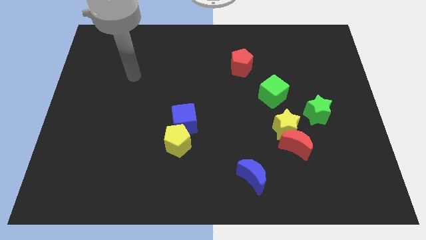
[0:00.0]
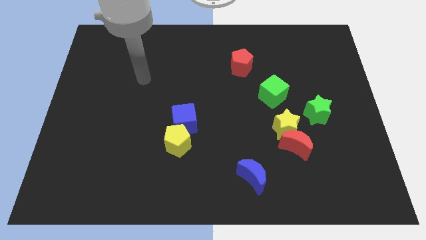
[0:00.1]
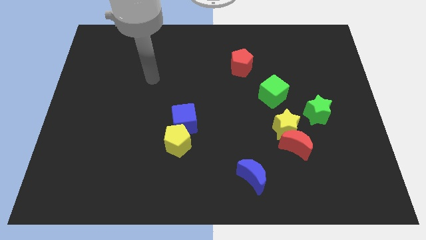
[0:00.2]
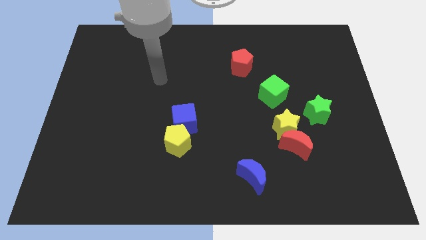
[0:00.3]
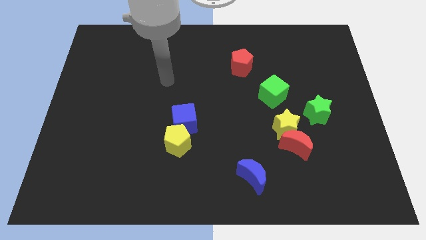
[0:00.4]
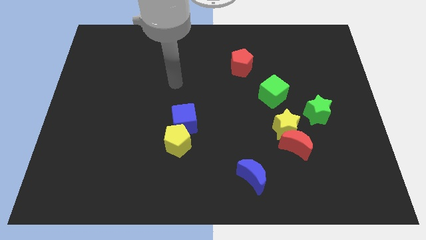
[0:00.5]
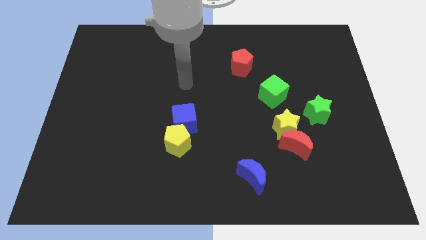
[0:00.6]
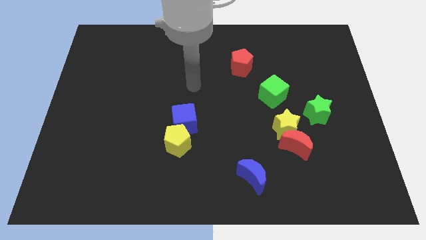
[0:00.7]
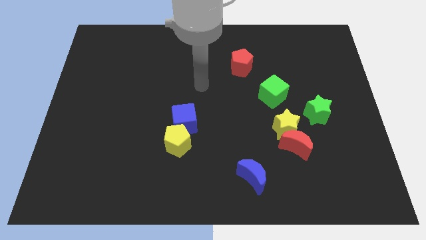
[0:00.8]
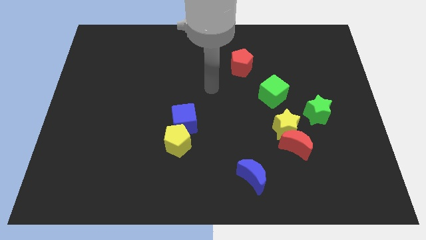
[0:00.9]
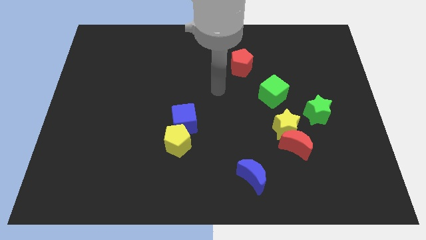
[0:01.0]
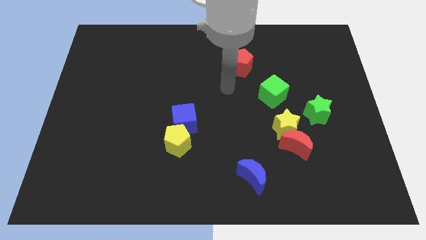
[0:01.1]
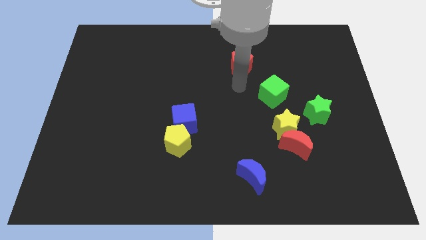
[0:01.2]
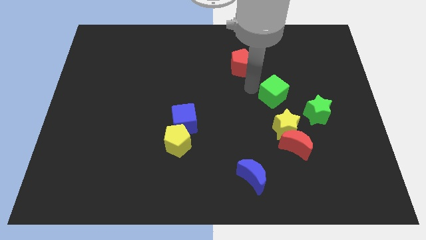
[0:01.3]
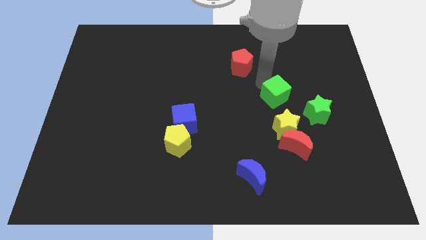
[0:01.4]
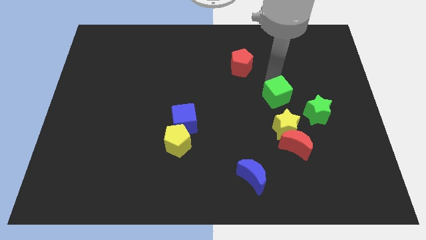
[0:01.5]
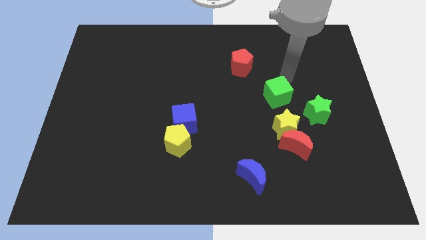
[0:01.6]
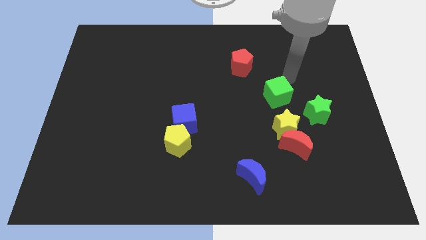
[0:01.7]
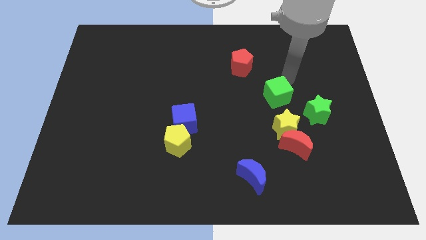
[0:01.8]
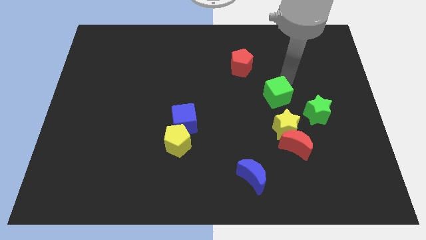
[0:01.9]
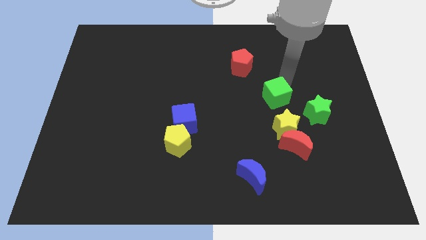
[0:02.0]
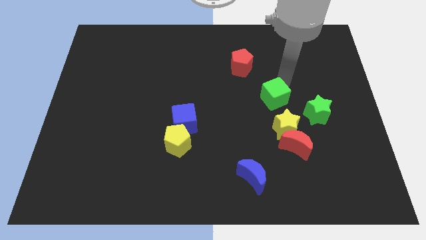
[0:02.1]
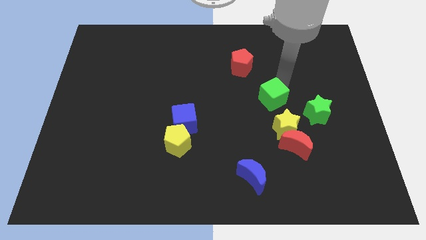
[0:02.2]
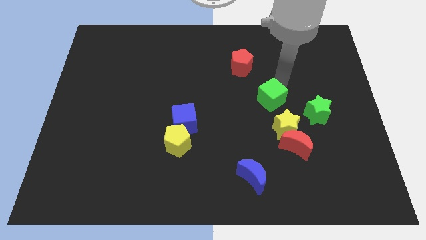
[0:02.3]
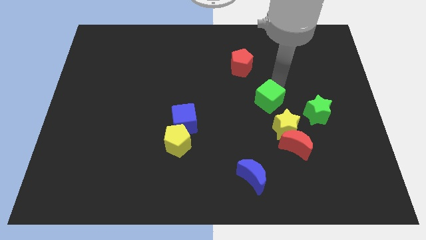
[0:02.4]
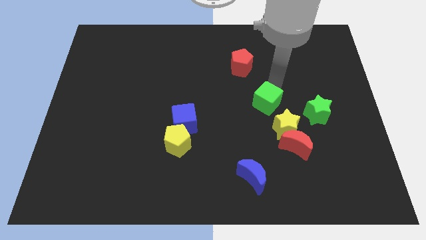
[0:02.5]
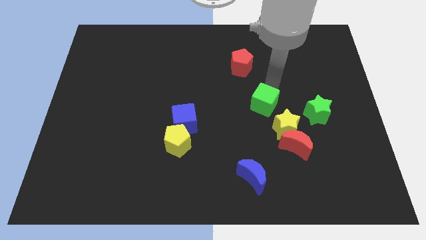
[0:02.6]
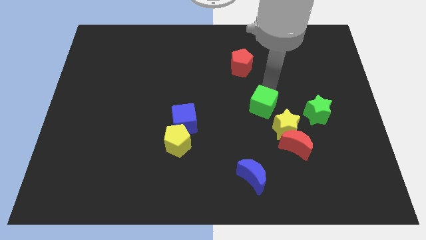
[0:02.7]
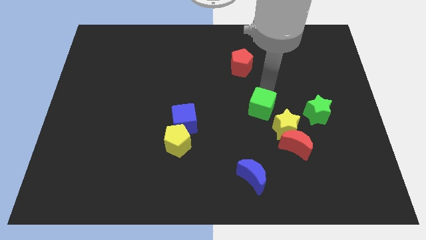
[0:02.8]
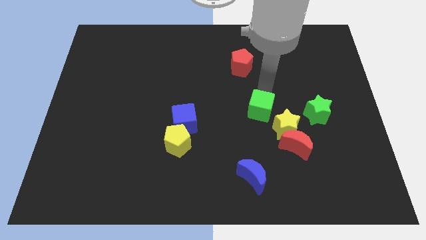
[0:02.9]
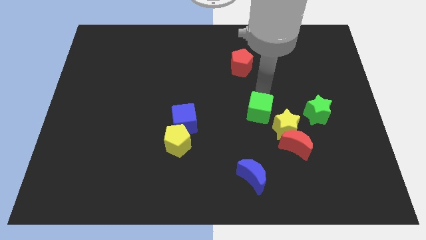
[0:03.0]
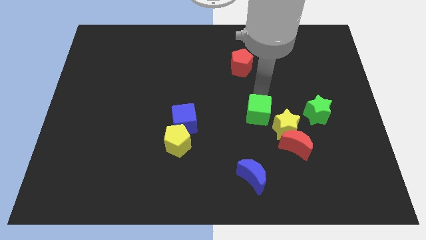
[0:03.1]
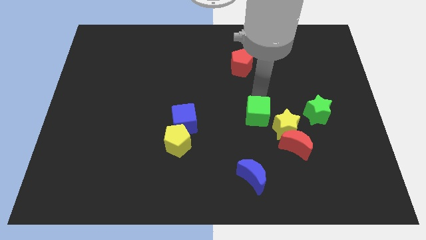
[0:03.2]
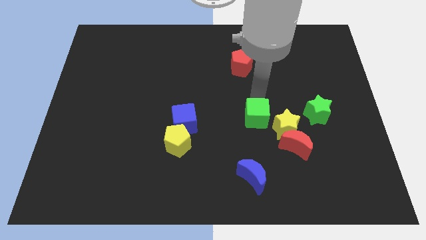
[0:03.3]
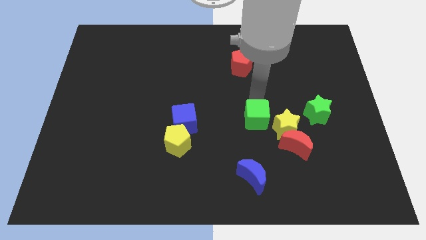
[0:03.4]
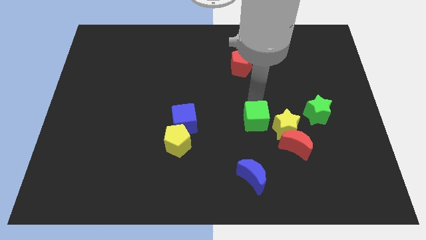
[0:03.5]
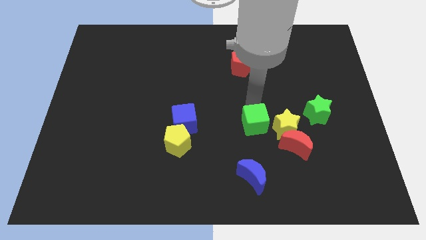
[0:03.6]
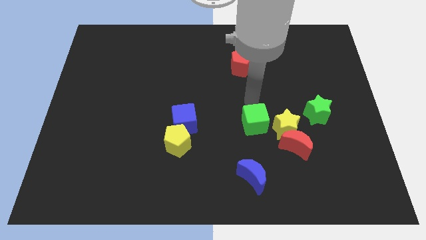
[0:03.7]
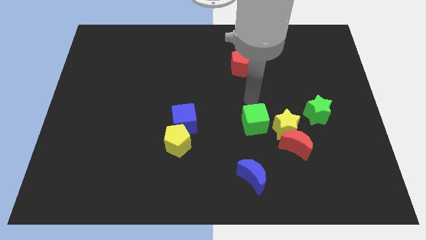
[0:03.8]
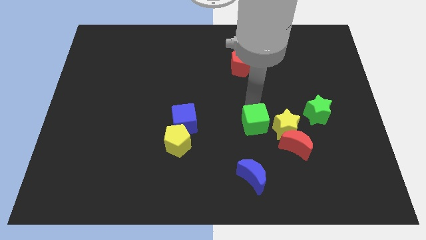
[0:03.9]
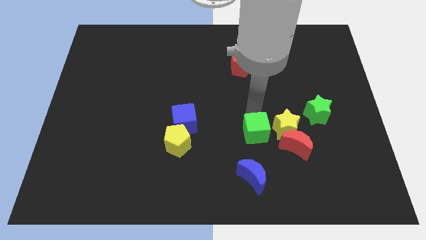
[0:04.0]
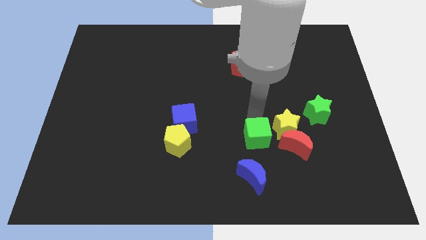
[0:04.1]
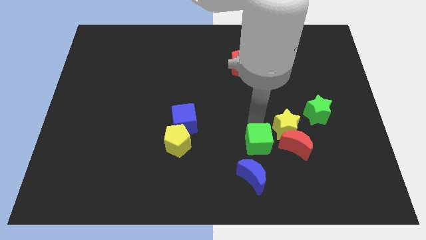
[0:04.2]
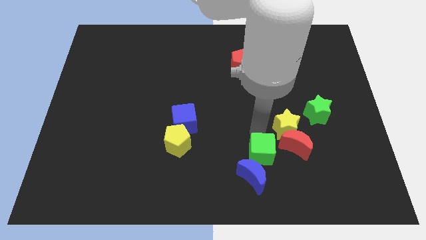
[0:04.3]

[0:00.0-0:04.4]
move the green cube next to the blue moon

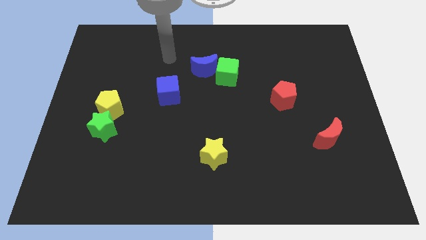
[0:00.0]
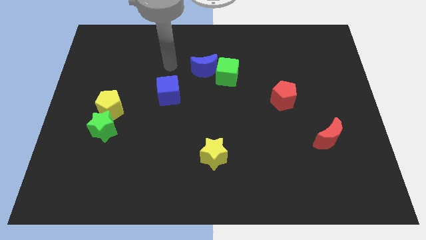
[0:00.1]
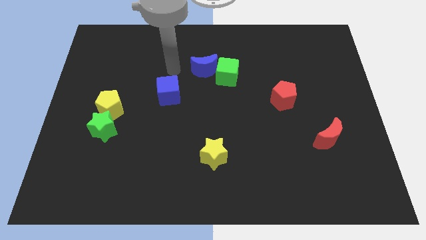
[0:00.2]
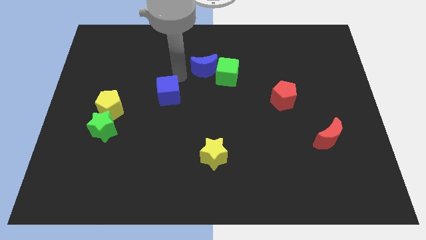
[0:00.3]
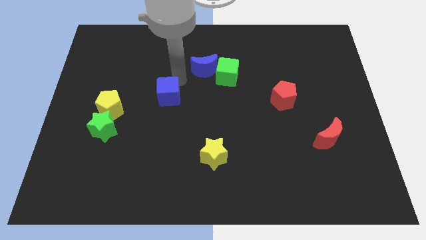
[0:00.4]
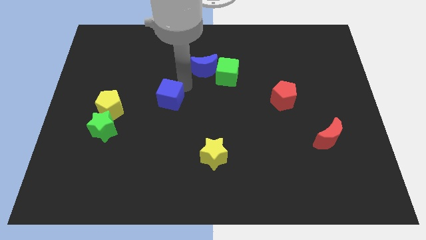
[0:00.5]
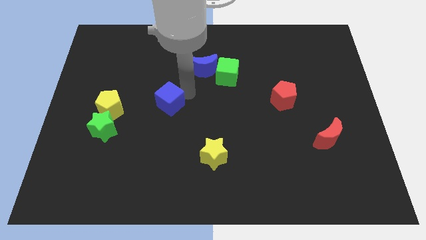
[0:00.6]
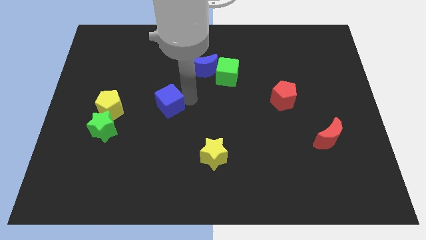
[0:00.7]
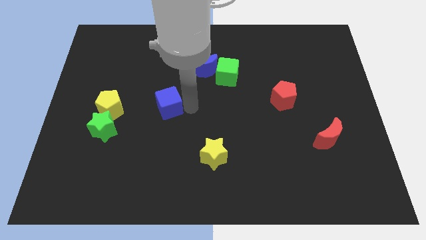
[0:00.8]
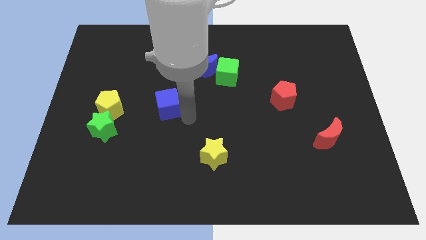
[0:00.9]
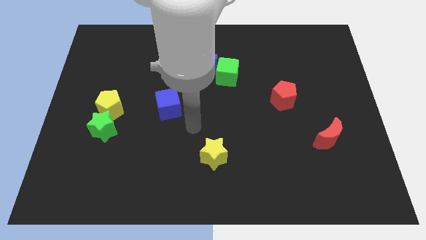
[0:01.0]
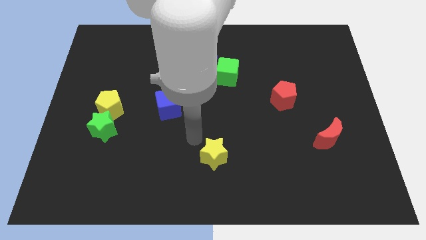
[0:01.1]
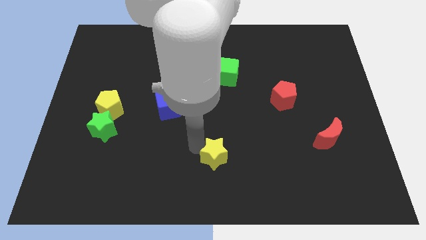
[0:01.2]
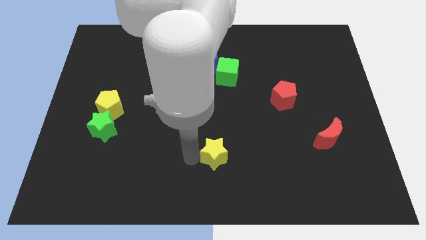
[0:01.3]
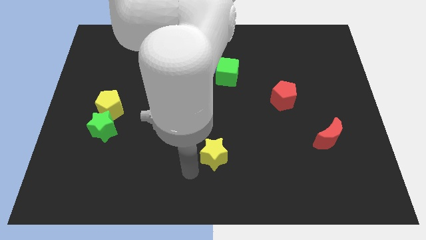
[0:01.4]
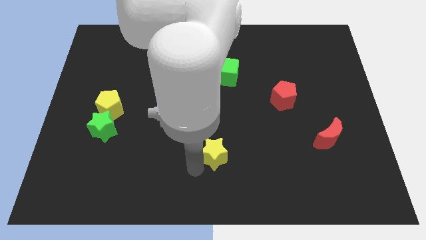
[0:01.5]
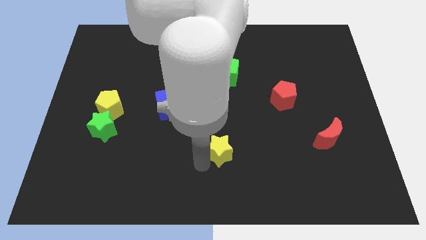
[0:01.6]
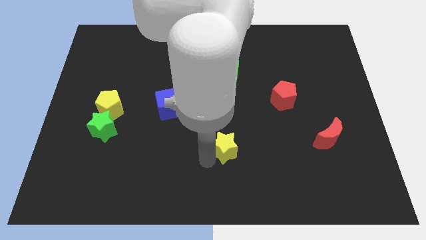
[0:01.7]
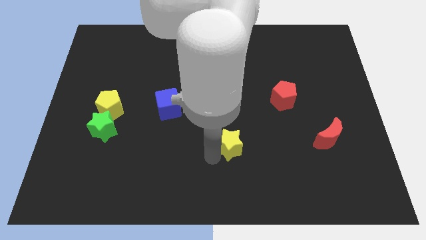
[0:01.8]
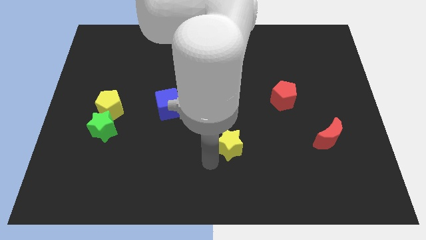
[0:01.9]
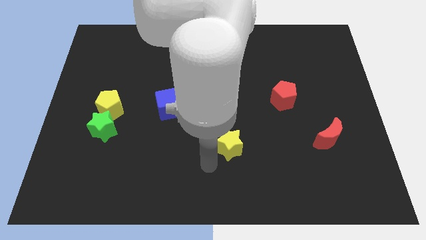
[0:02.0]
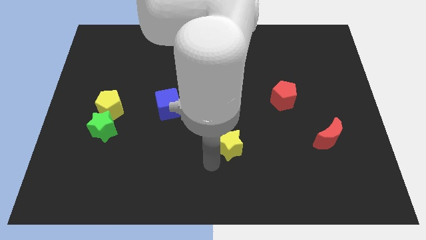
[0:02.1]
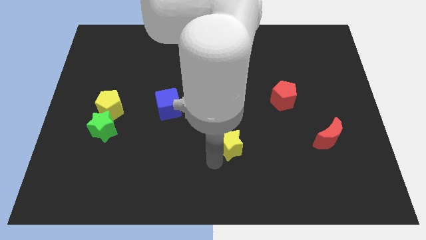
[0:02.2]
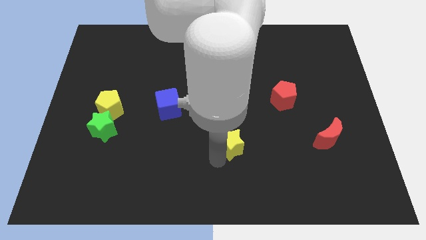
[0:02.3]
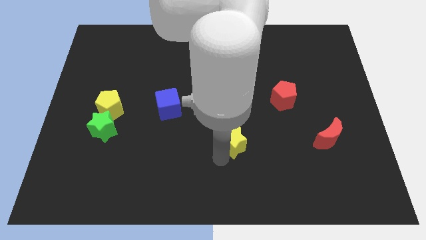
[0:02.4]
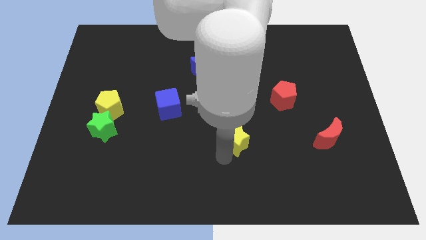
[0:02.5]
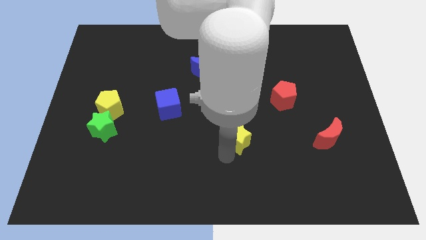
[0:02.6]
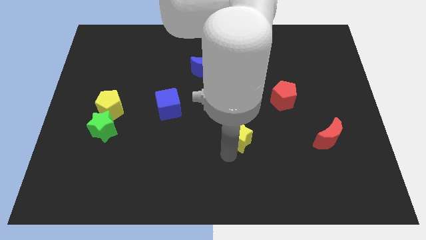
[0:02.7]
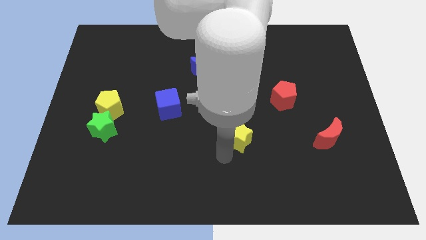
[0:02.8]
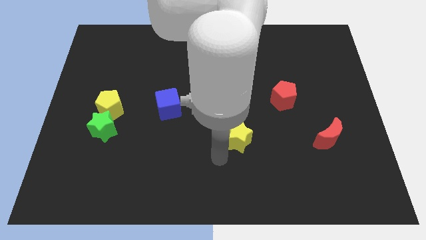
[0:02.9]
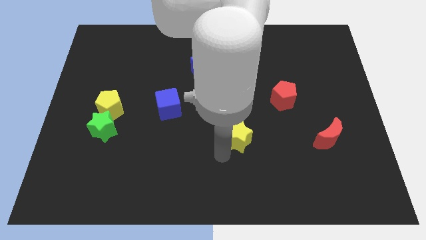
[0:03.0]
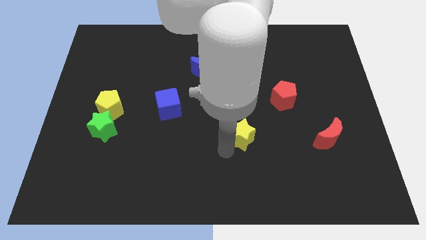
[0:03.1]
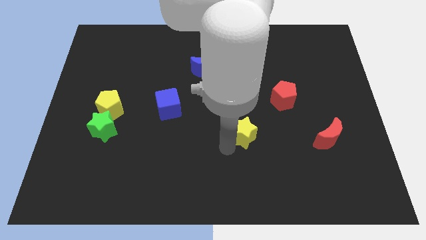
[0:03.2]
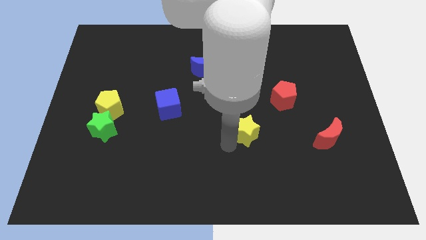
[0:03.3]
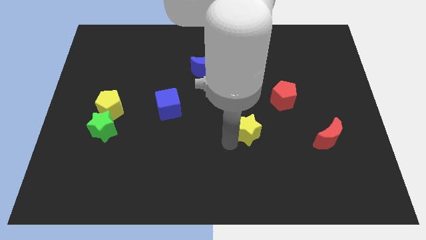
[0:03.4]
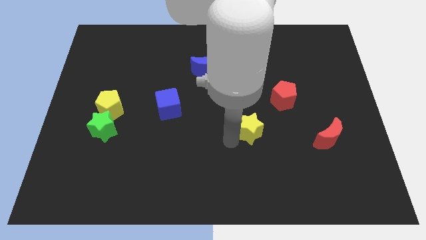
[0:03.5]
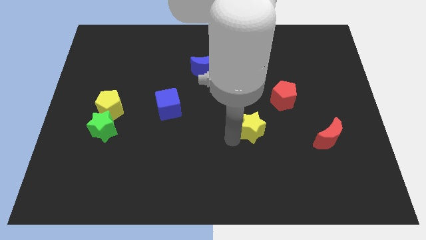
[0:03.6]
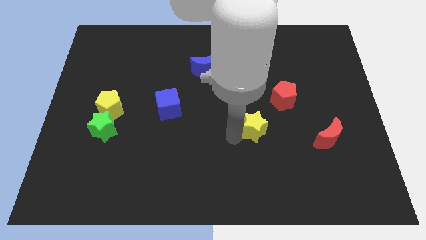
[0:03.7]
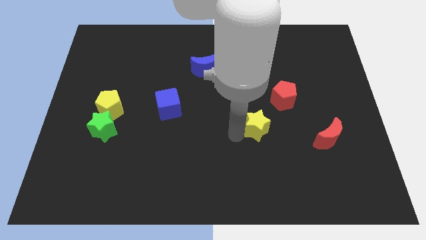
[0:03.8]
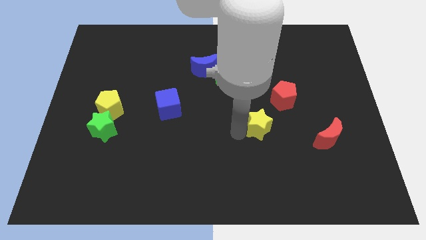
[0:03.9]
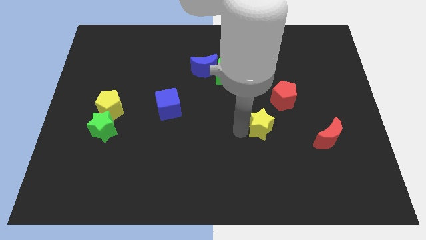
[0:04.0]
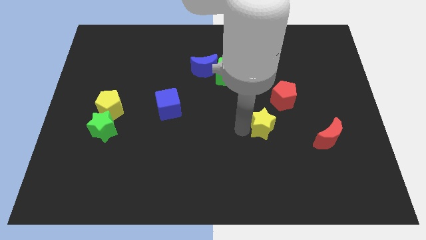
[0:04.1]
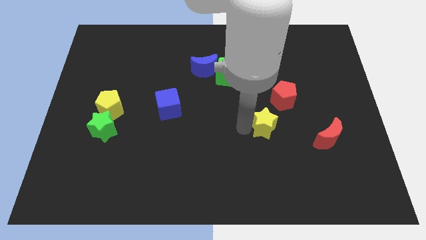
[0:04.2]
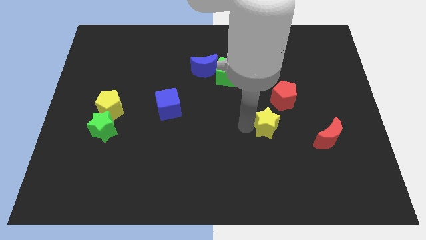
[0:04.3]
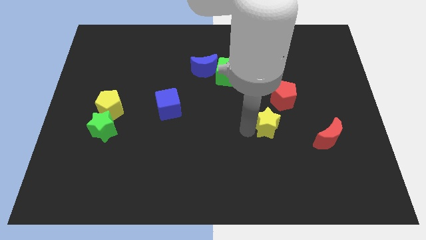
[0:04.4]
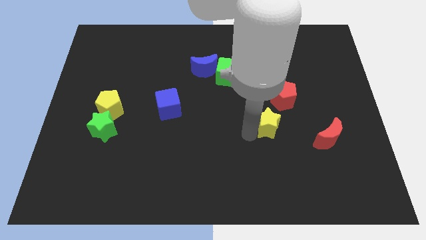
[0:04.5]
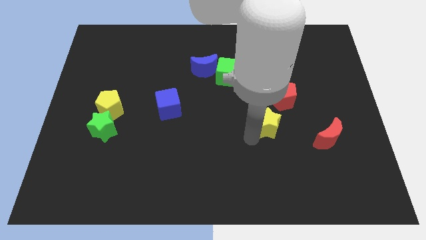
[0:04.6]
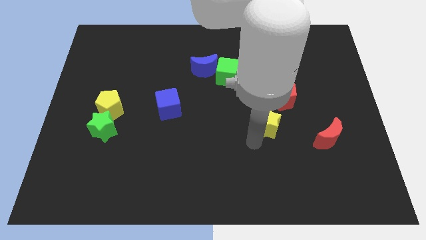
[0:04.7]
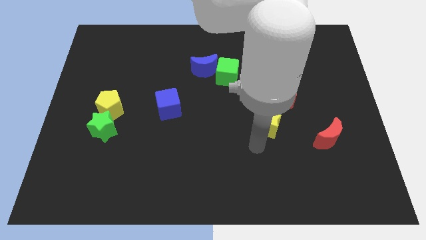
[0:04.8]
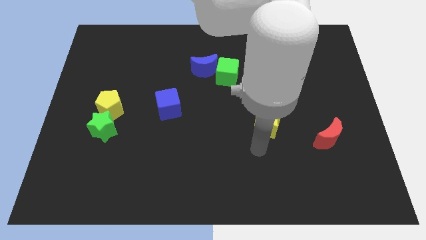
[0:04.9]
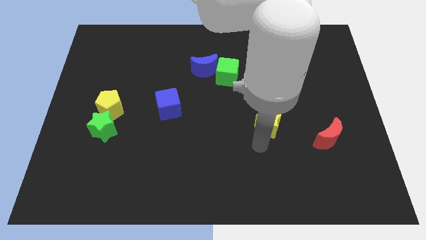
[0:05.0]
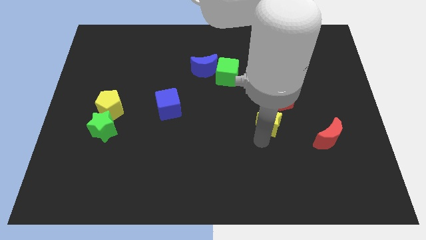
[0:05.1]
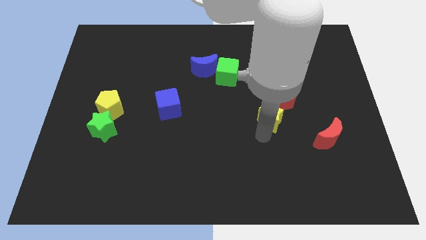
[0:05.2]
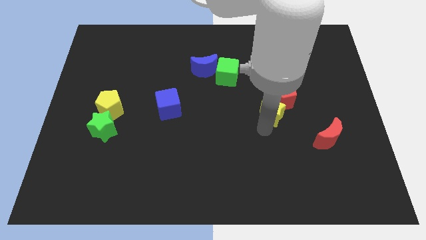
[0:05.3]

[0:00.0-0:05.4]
move the yellow star to the red pentagon
